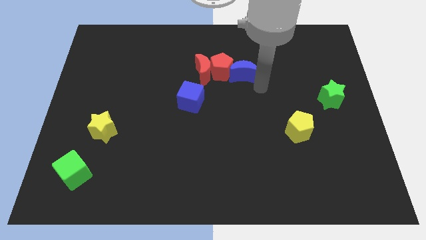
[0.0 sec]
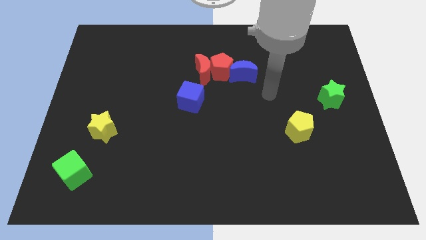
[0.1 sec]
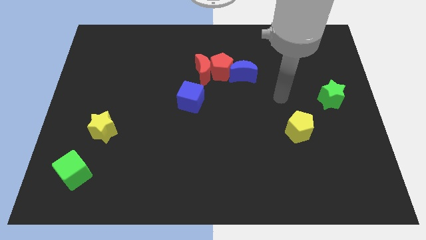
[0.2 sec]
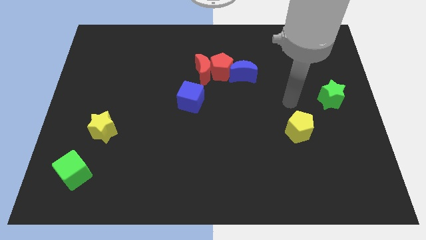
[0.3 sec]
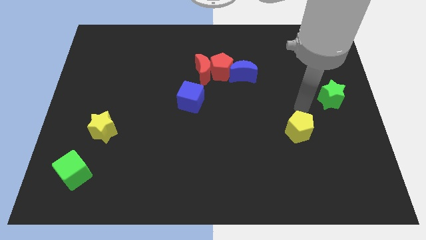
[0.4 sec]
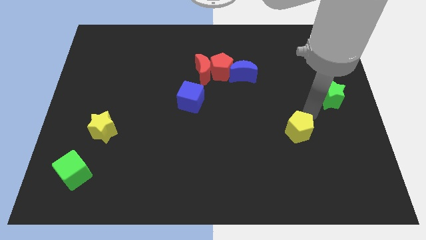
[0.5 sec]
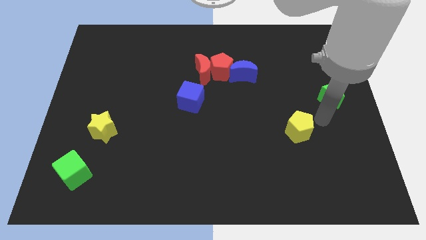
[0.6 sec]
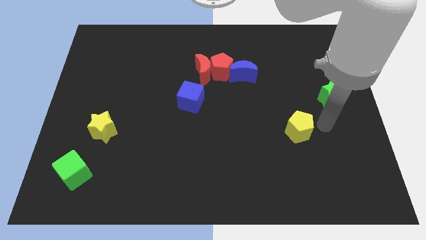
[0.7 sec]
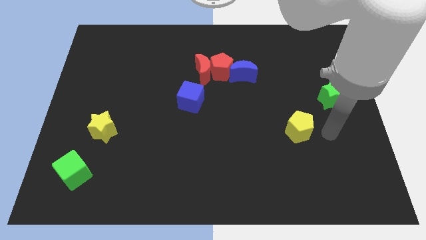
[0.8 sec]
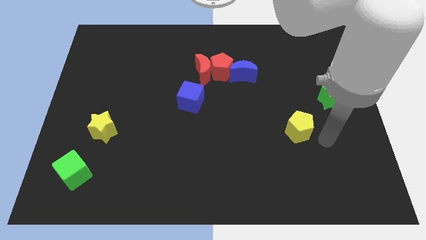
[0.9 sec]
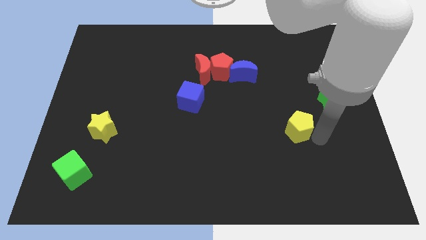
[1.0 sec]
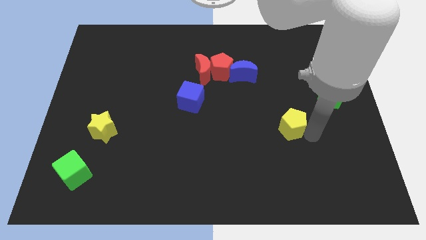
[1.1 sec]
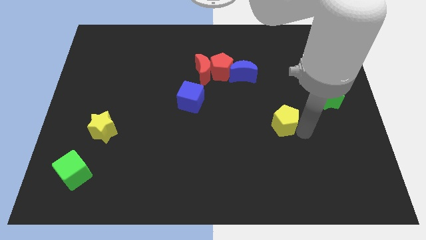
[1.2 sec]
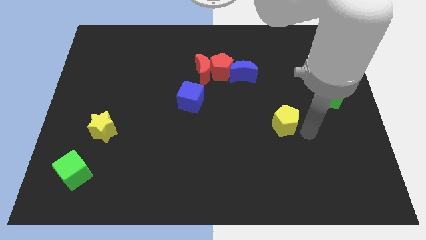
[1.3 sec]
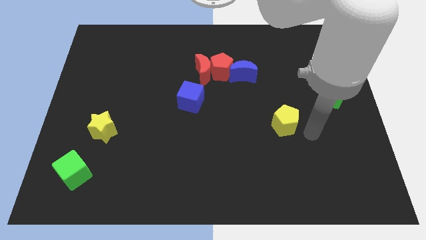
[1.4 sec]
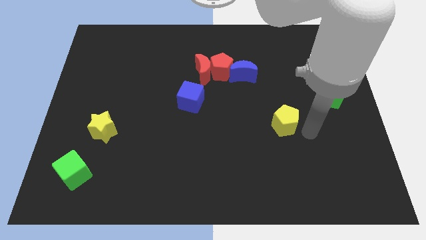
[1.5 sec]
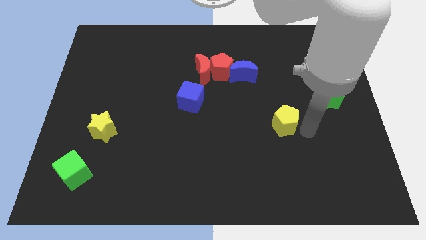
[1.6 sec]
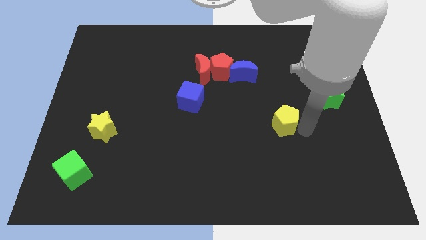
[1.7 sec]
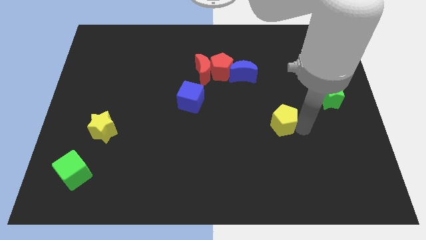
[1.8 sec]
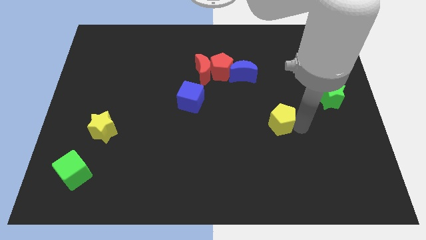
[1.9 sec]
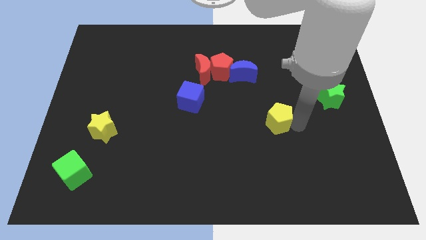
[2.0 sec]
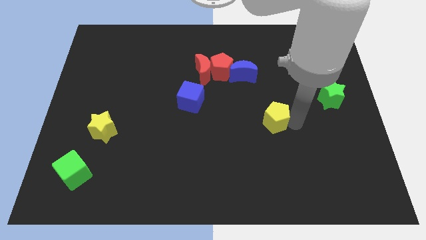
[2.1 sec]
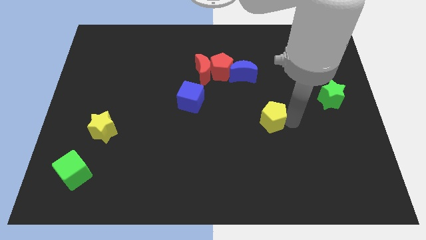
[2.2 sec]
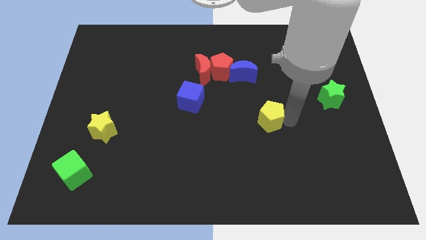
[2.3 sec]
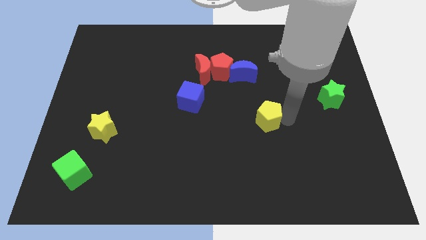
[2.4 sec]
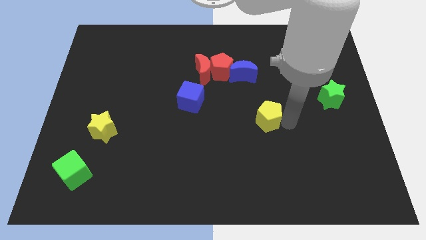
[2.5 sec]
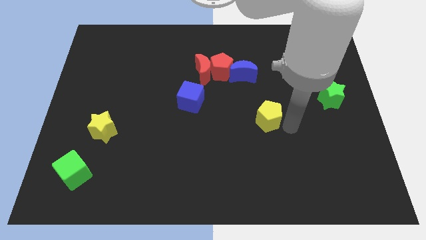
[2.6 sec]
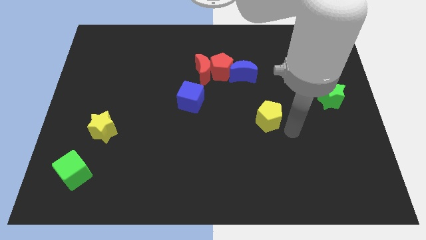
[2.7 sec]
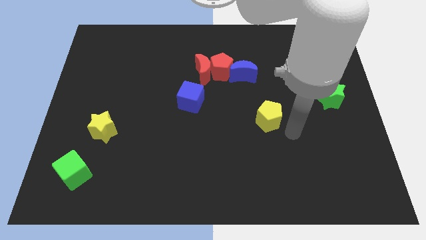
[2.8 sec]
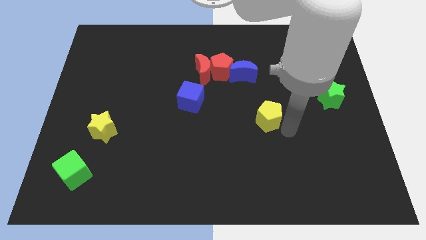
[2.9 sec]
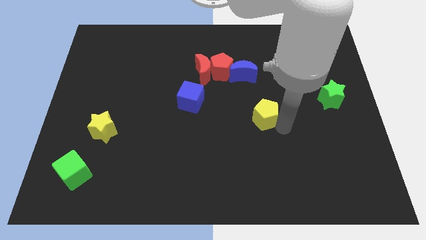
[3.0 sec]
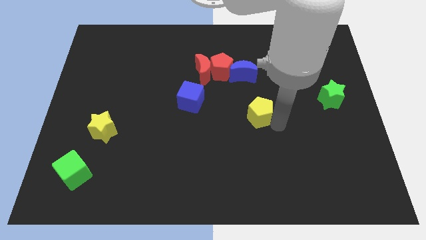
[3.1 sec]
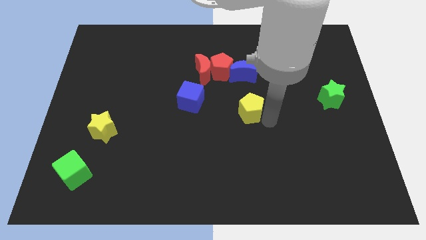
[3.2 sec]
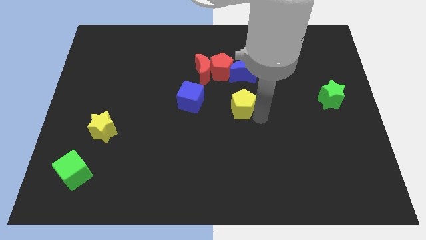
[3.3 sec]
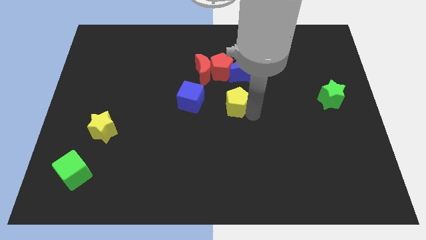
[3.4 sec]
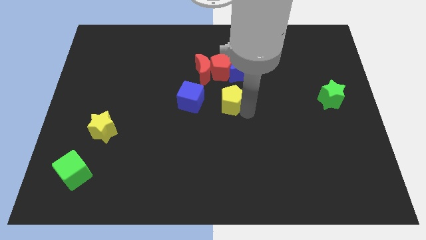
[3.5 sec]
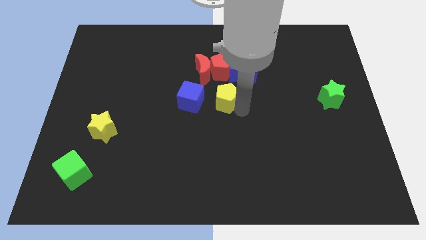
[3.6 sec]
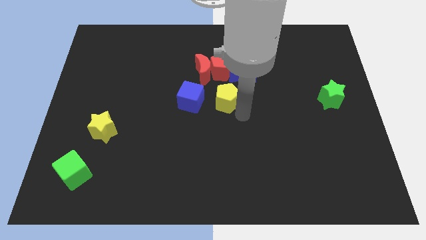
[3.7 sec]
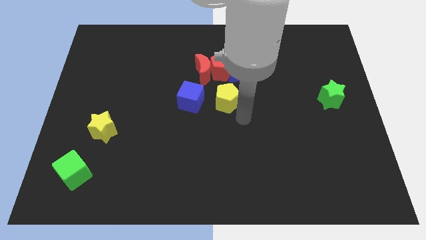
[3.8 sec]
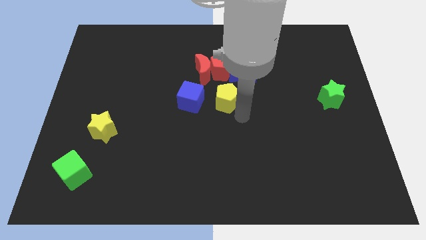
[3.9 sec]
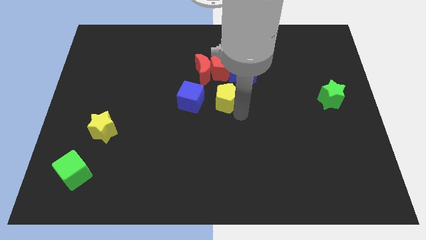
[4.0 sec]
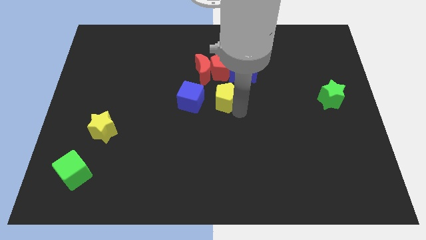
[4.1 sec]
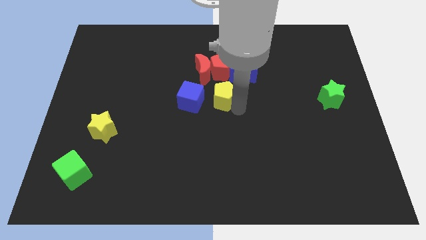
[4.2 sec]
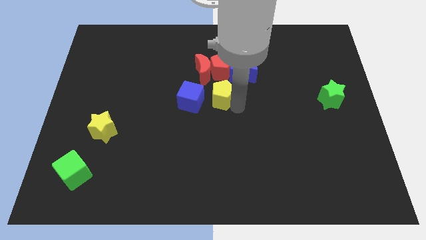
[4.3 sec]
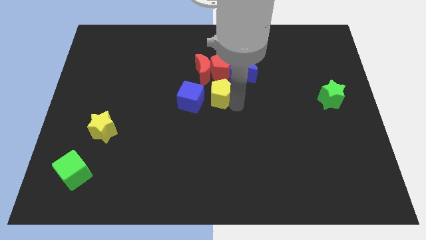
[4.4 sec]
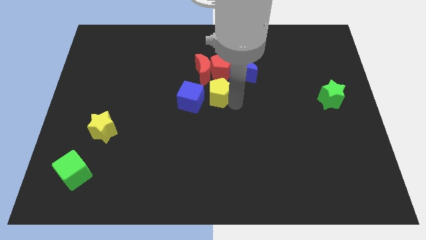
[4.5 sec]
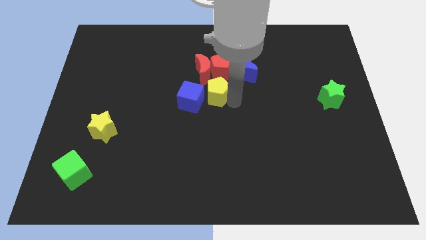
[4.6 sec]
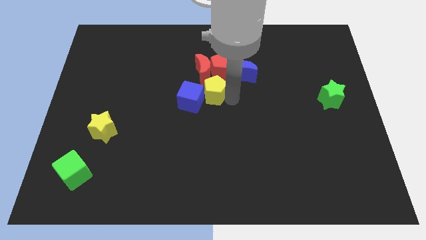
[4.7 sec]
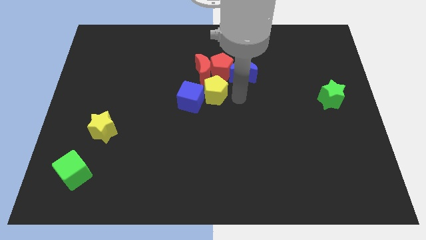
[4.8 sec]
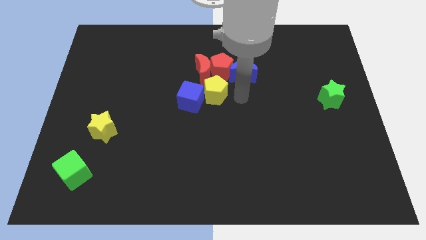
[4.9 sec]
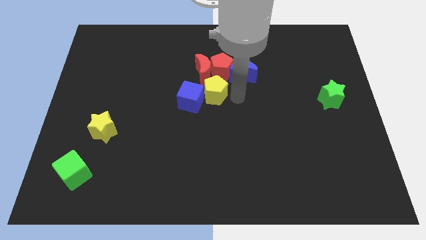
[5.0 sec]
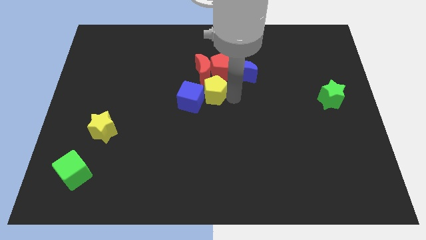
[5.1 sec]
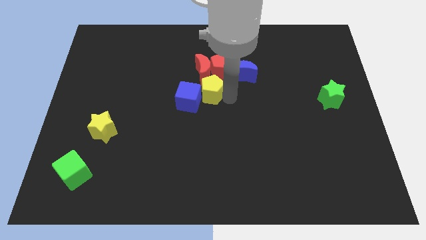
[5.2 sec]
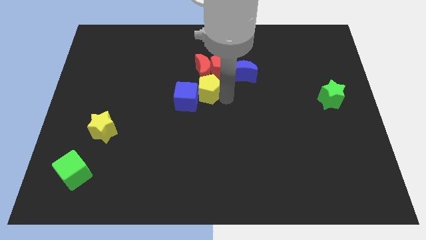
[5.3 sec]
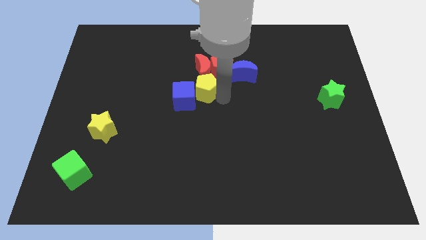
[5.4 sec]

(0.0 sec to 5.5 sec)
slide the yellow pentagon to the bottom left side of the red moon
